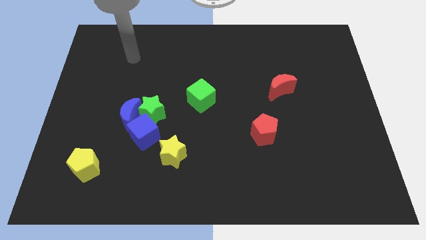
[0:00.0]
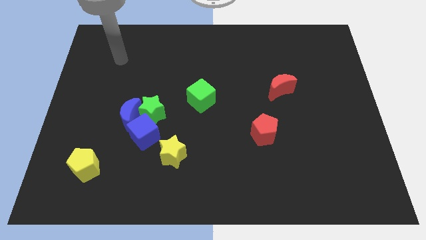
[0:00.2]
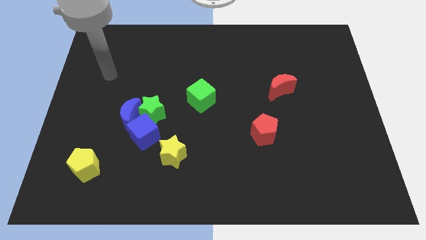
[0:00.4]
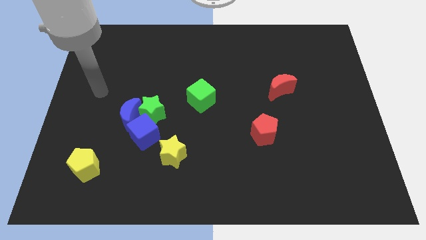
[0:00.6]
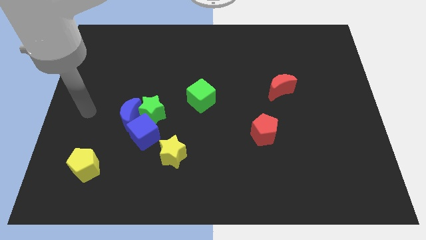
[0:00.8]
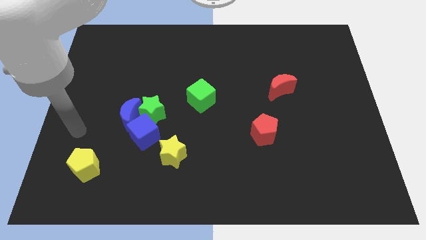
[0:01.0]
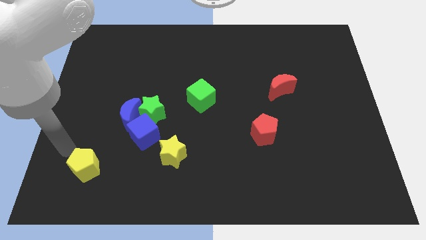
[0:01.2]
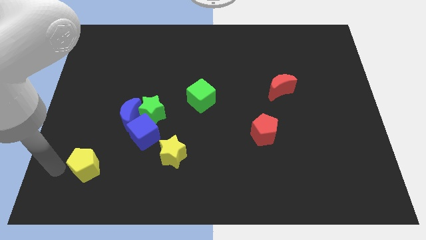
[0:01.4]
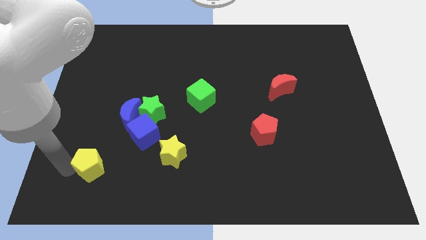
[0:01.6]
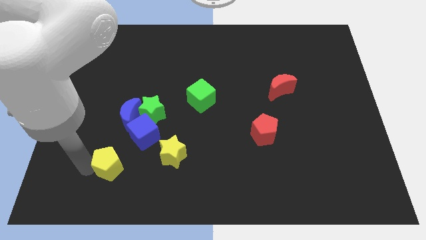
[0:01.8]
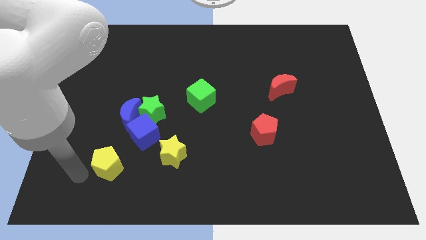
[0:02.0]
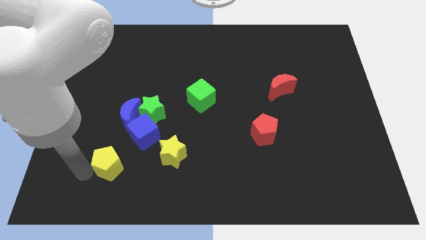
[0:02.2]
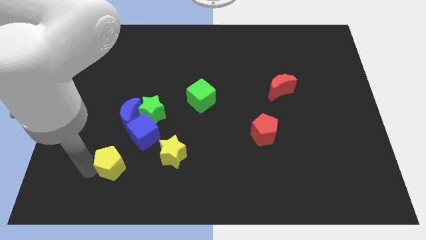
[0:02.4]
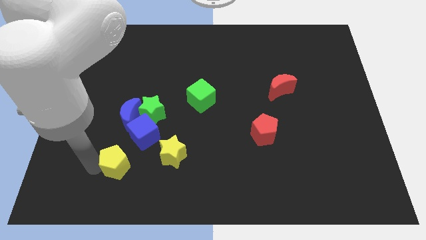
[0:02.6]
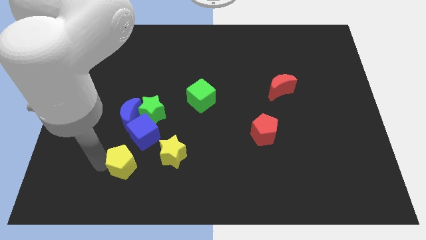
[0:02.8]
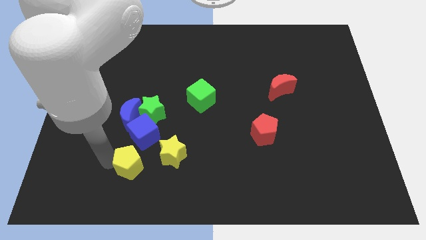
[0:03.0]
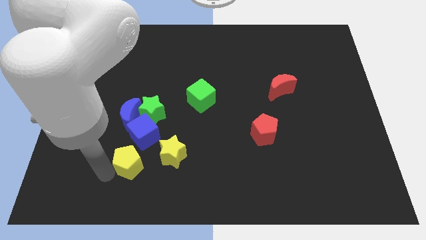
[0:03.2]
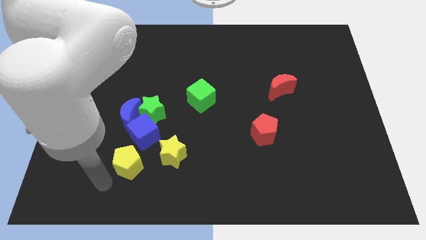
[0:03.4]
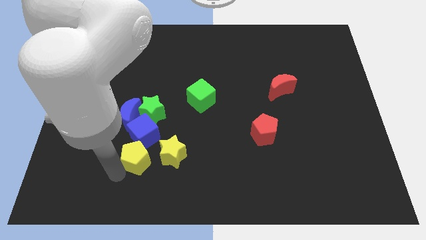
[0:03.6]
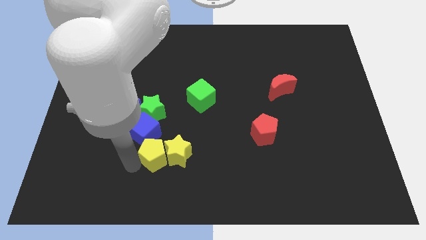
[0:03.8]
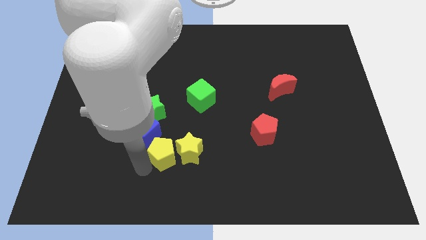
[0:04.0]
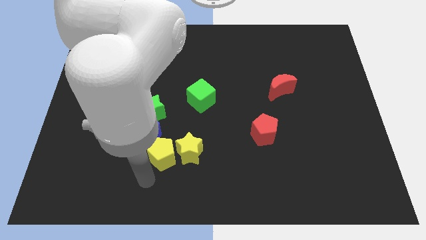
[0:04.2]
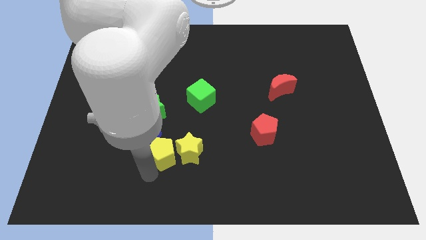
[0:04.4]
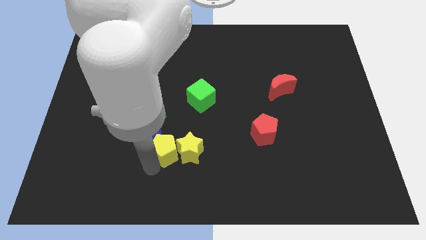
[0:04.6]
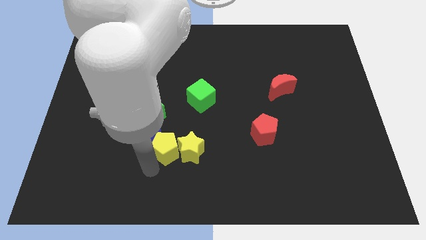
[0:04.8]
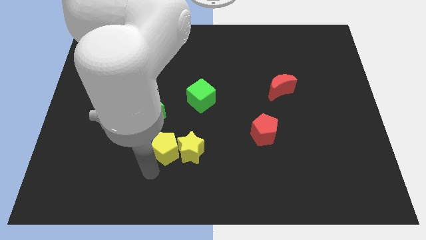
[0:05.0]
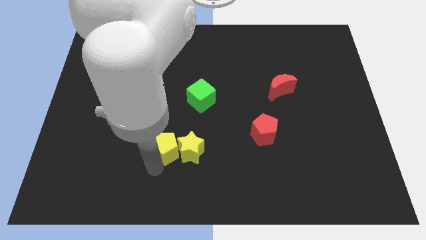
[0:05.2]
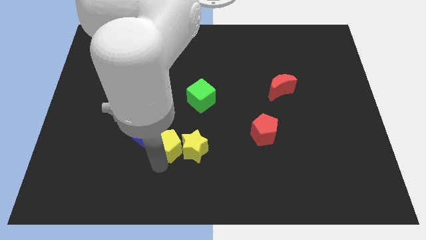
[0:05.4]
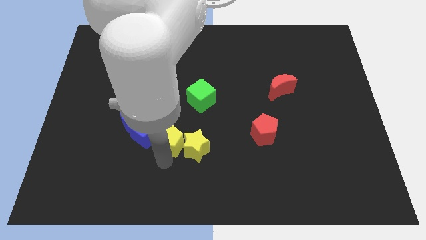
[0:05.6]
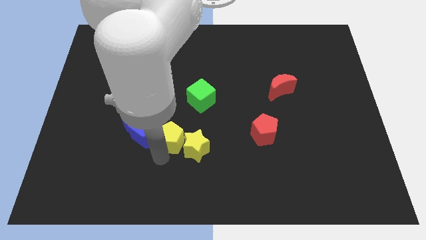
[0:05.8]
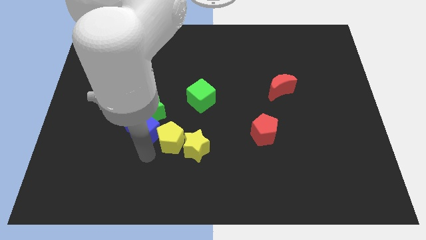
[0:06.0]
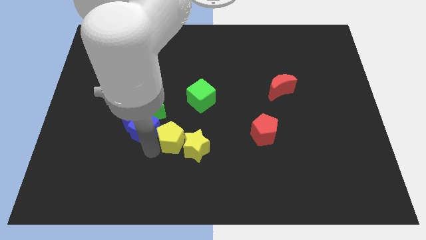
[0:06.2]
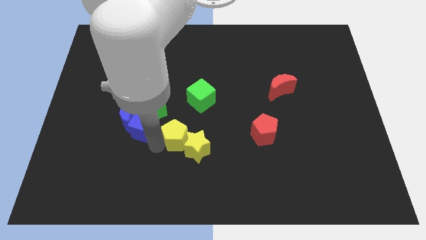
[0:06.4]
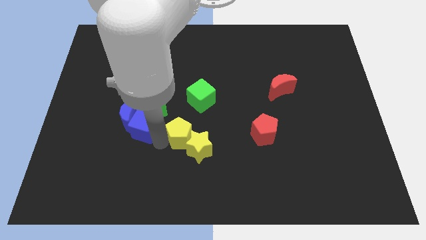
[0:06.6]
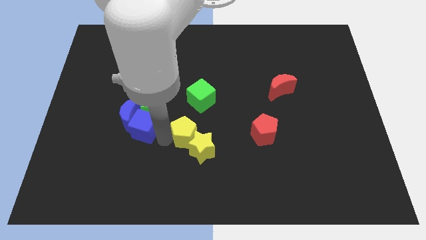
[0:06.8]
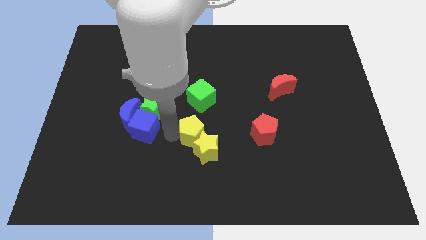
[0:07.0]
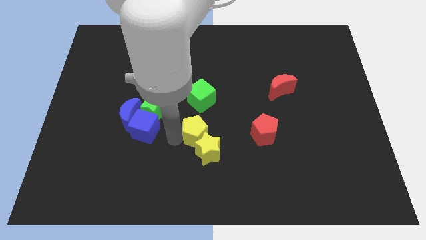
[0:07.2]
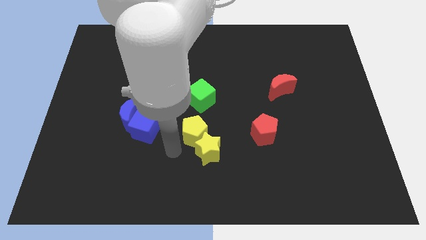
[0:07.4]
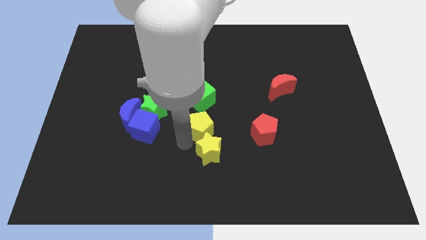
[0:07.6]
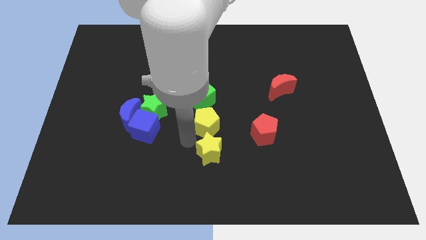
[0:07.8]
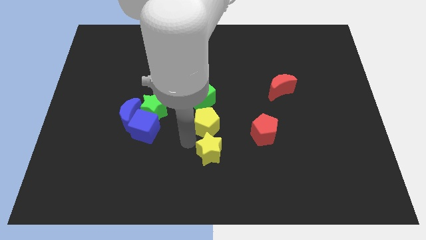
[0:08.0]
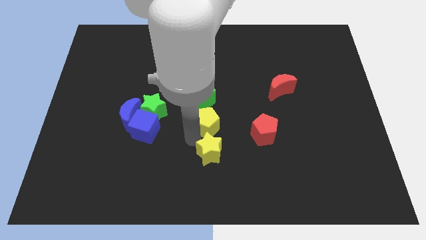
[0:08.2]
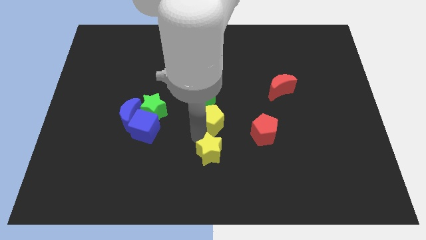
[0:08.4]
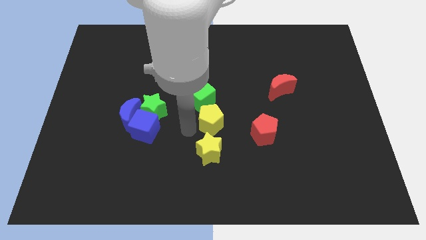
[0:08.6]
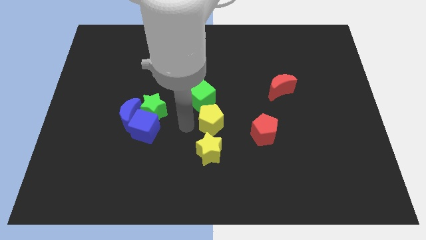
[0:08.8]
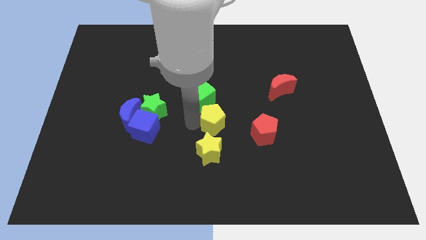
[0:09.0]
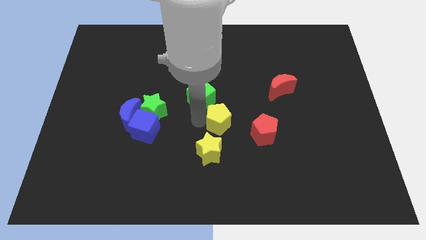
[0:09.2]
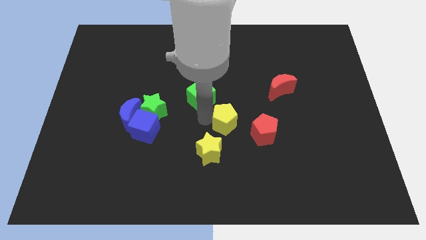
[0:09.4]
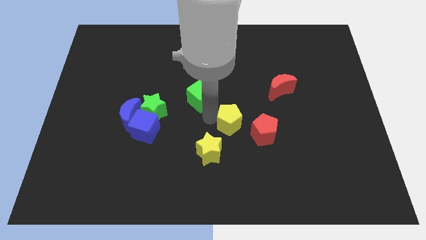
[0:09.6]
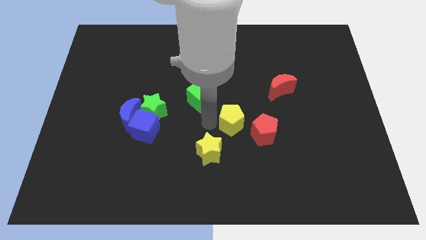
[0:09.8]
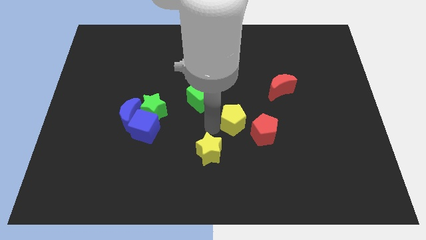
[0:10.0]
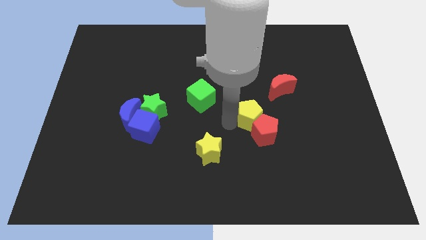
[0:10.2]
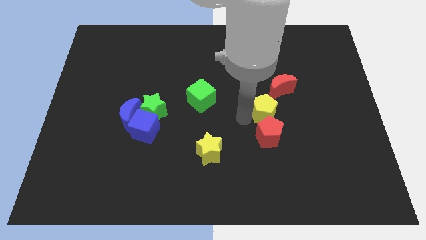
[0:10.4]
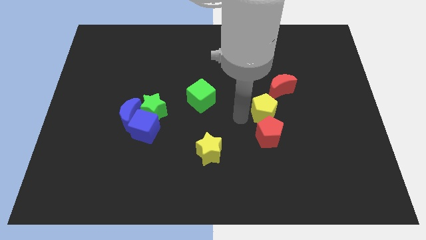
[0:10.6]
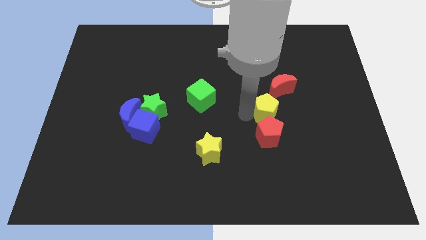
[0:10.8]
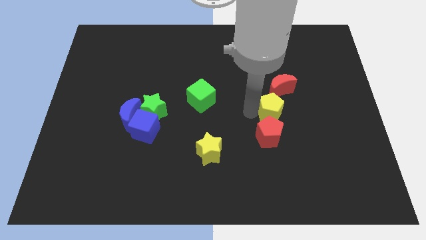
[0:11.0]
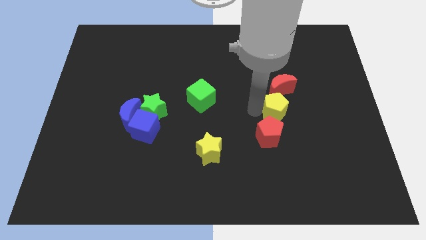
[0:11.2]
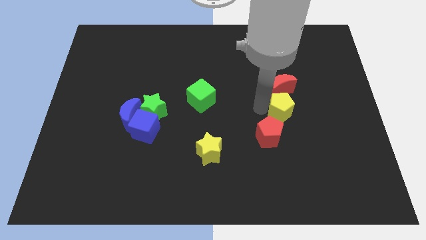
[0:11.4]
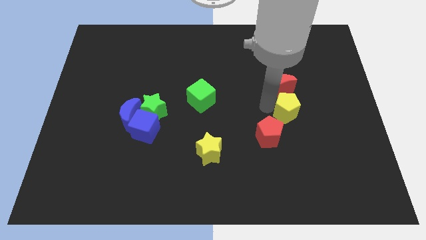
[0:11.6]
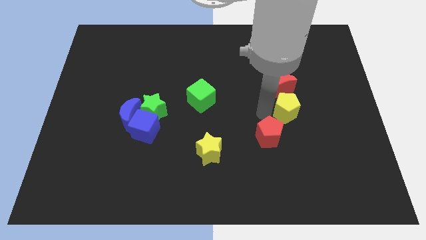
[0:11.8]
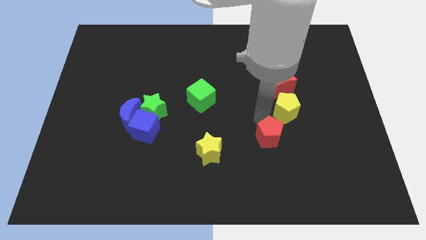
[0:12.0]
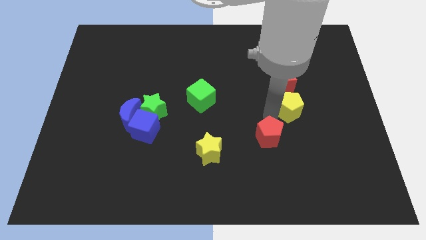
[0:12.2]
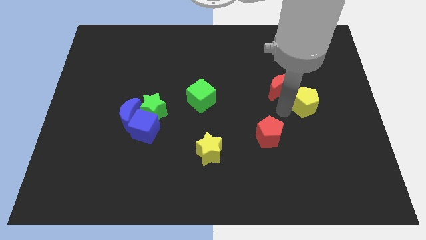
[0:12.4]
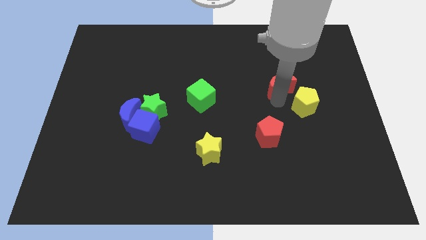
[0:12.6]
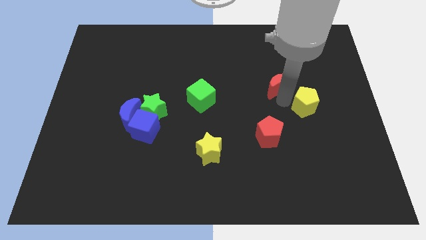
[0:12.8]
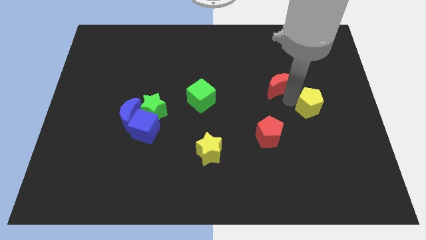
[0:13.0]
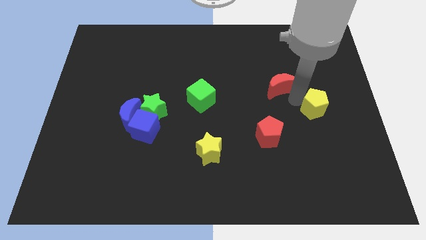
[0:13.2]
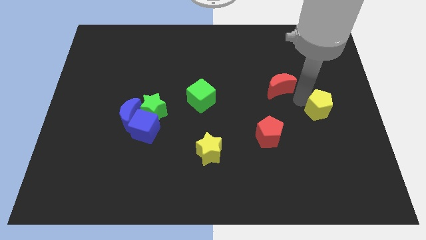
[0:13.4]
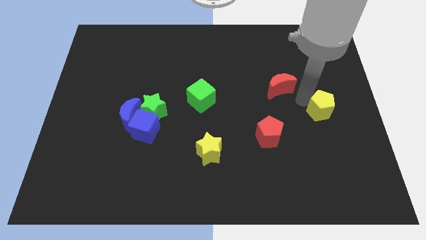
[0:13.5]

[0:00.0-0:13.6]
push the yellow pentagon to the center right
